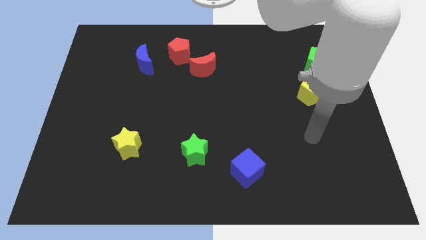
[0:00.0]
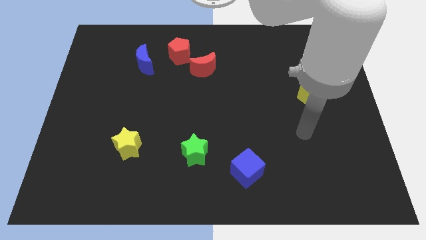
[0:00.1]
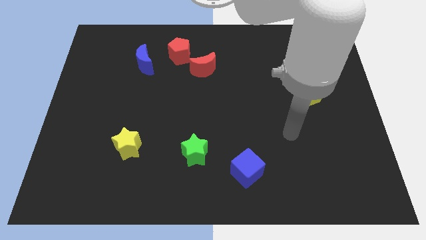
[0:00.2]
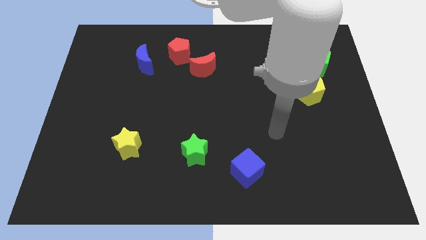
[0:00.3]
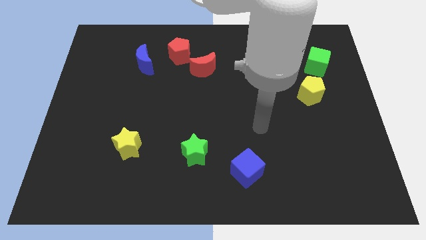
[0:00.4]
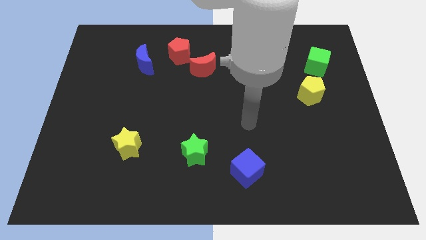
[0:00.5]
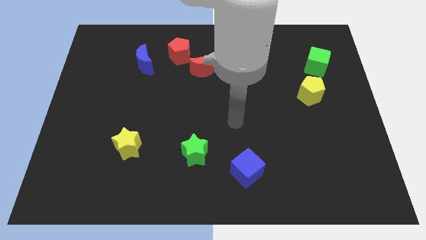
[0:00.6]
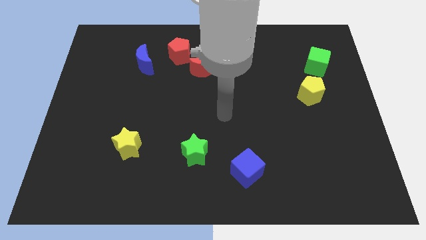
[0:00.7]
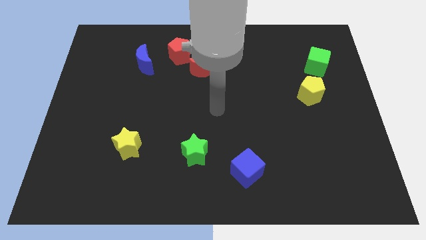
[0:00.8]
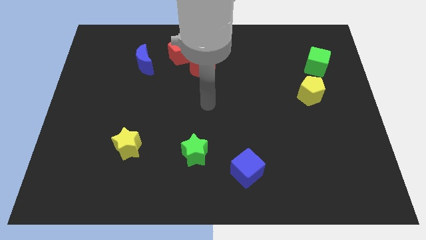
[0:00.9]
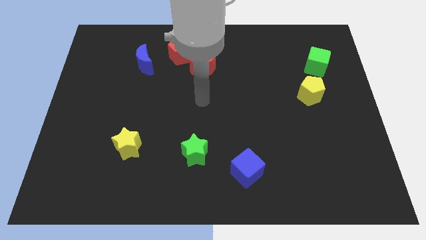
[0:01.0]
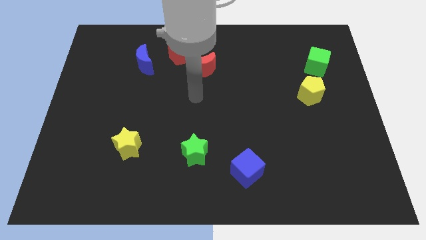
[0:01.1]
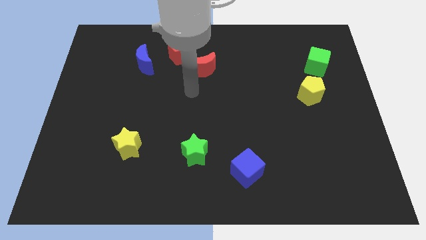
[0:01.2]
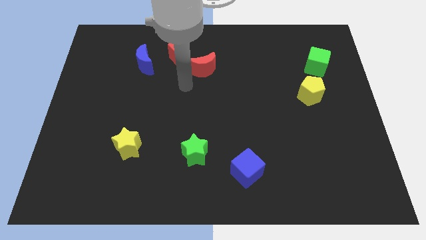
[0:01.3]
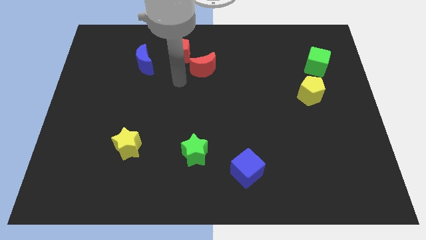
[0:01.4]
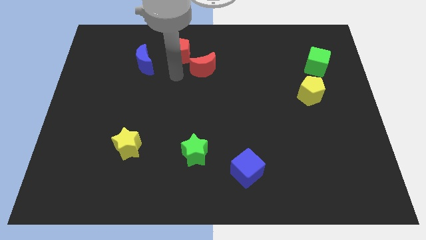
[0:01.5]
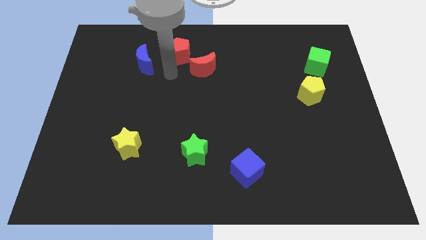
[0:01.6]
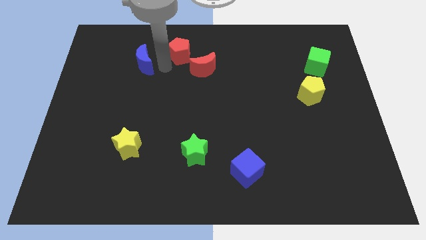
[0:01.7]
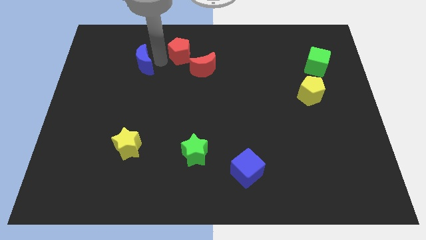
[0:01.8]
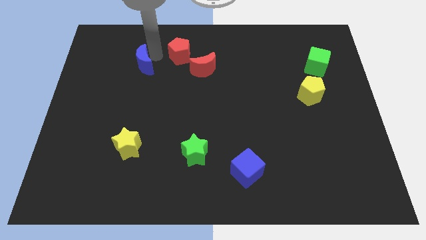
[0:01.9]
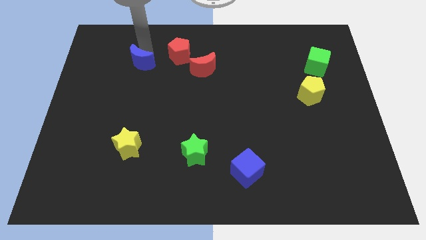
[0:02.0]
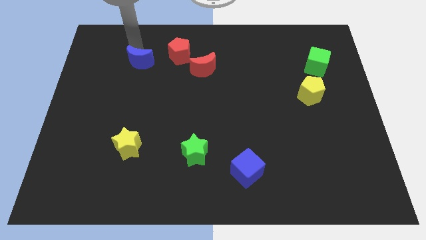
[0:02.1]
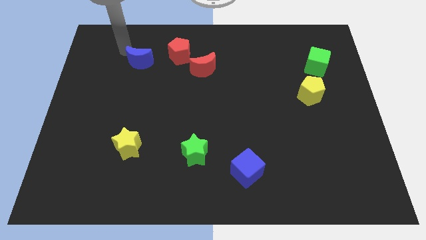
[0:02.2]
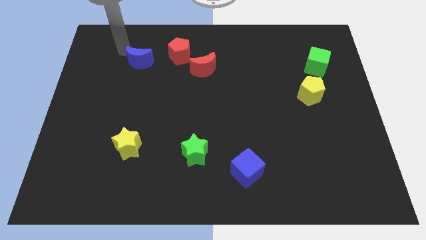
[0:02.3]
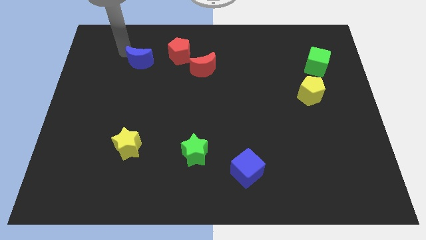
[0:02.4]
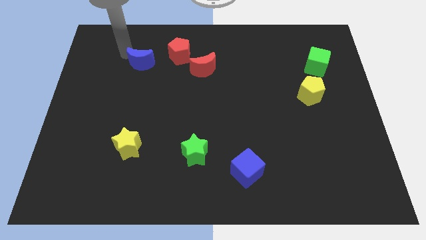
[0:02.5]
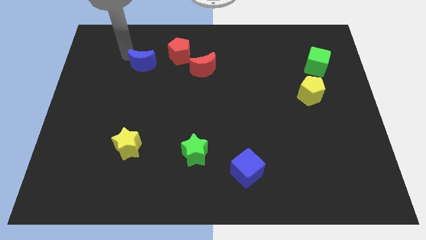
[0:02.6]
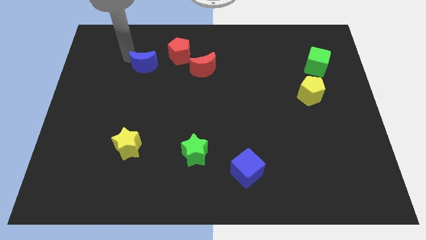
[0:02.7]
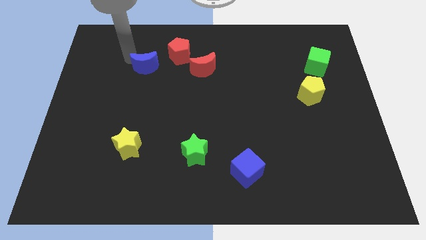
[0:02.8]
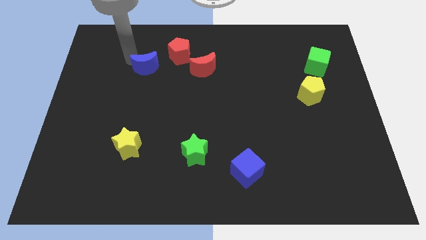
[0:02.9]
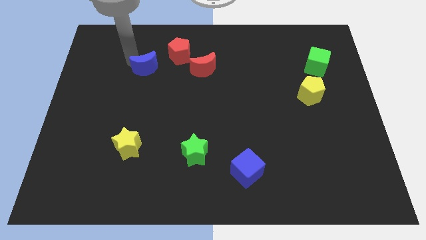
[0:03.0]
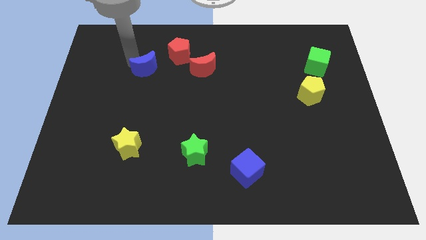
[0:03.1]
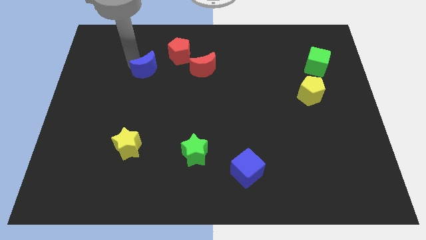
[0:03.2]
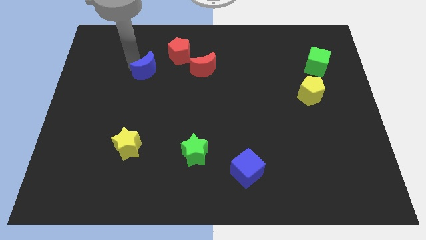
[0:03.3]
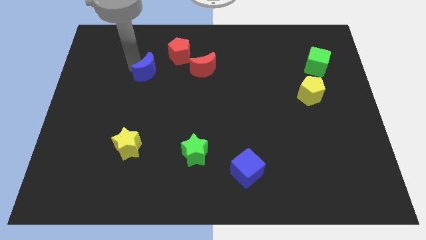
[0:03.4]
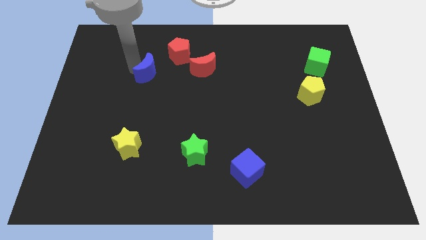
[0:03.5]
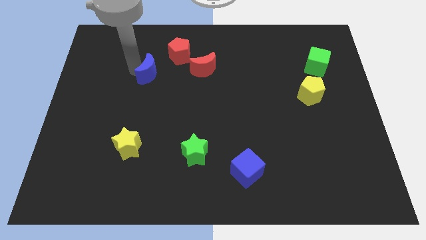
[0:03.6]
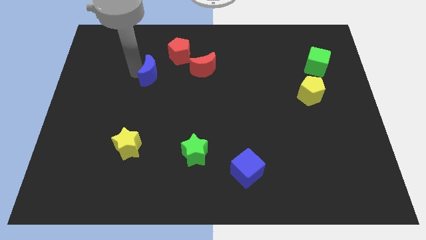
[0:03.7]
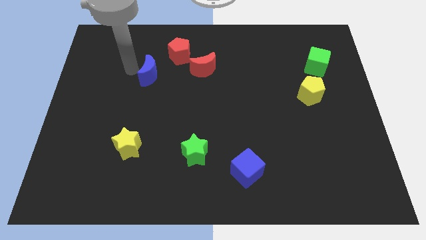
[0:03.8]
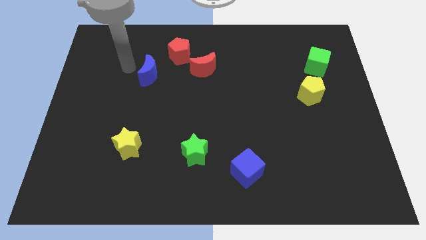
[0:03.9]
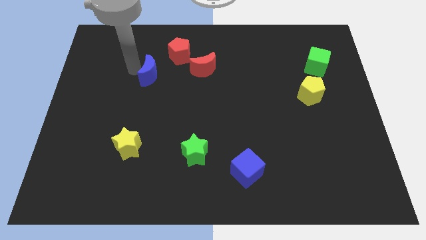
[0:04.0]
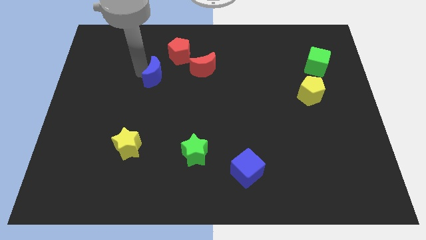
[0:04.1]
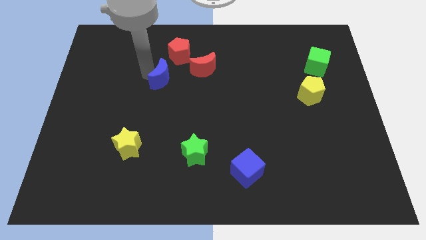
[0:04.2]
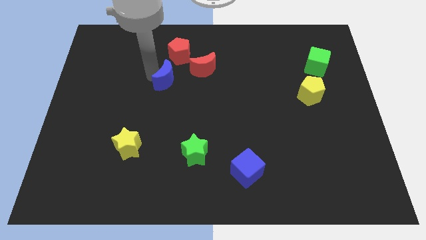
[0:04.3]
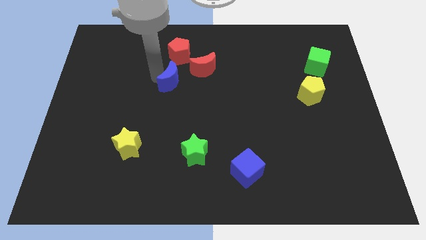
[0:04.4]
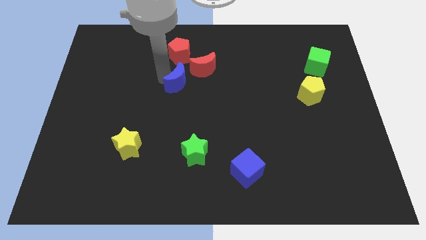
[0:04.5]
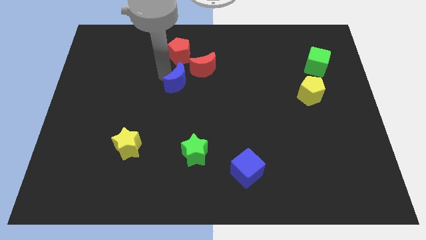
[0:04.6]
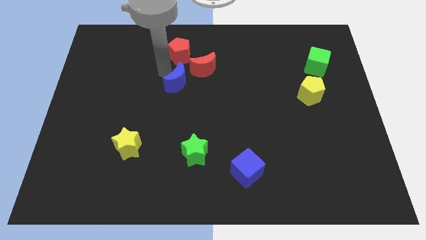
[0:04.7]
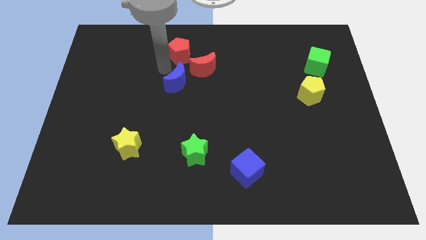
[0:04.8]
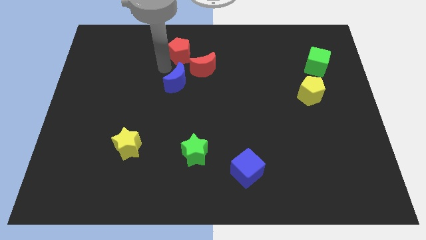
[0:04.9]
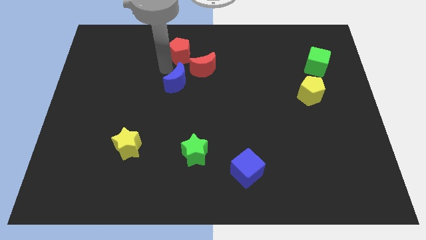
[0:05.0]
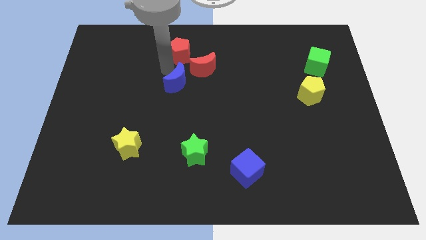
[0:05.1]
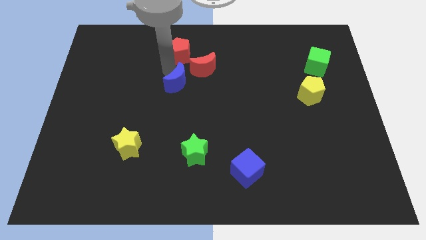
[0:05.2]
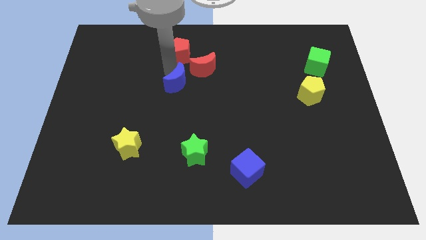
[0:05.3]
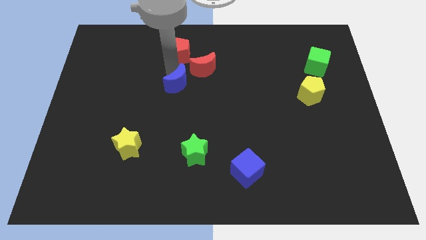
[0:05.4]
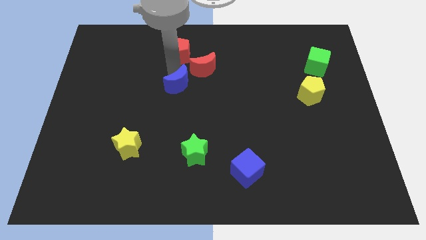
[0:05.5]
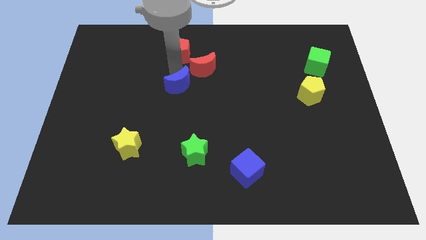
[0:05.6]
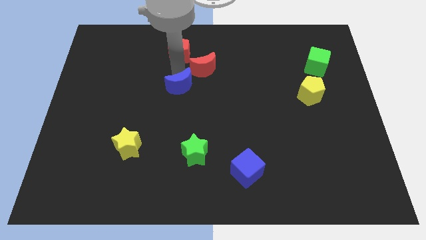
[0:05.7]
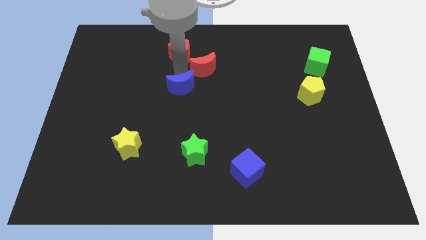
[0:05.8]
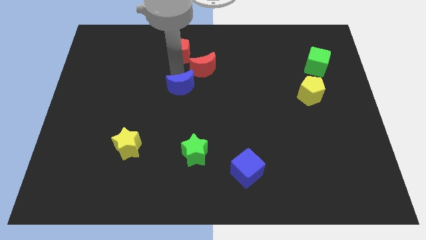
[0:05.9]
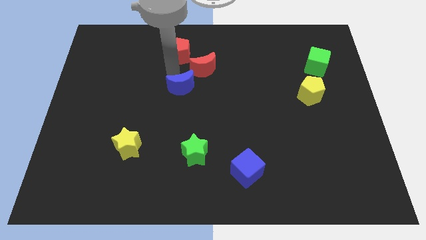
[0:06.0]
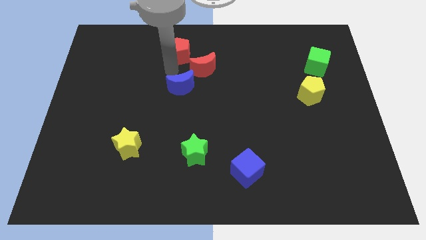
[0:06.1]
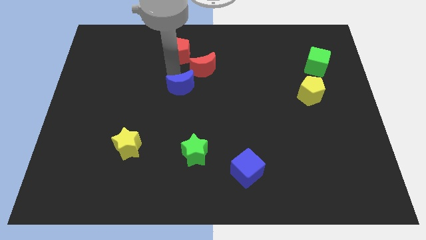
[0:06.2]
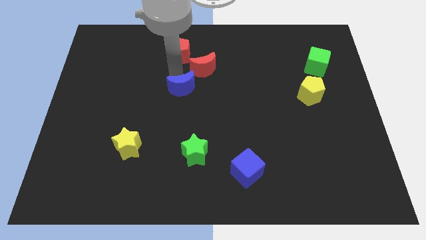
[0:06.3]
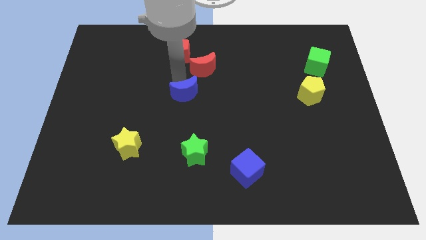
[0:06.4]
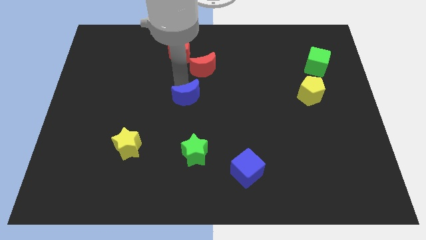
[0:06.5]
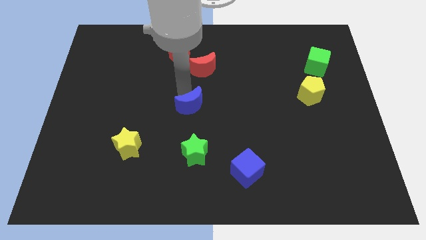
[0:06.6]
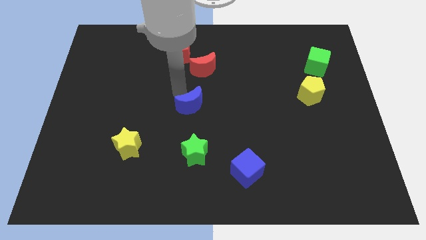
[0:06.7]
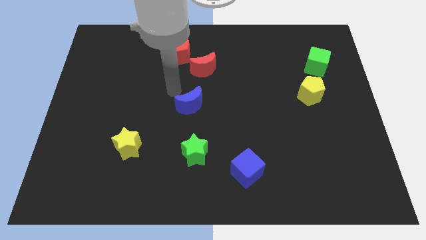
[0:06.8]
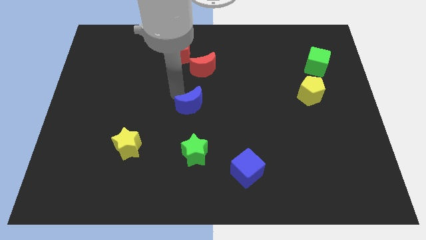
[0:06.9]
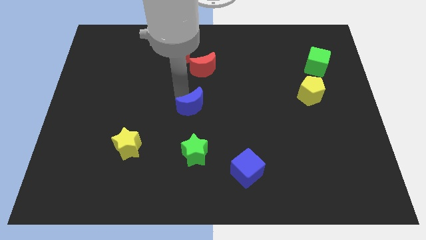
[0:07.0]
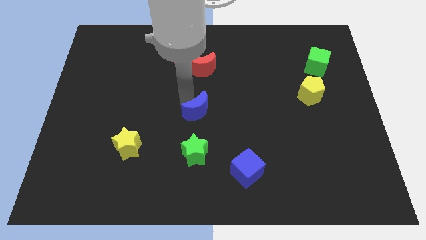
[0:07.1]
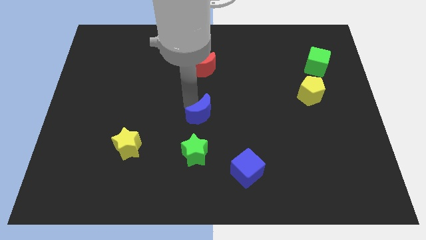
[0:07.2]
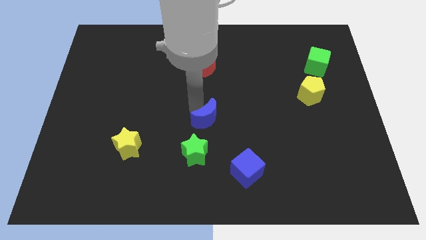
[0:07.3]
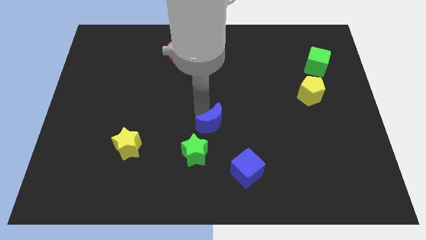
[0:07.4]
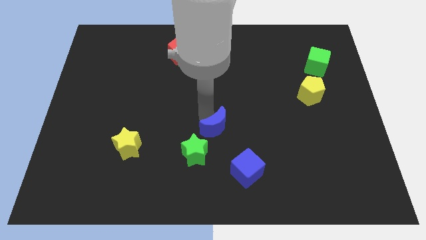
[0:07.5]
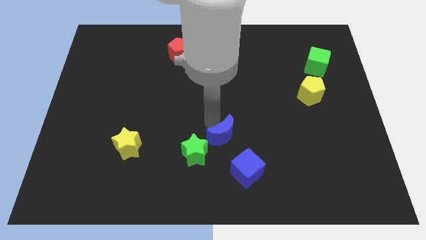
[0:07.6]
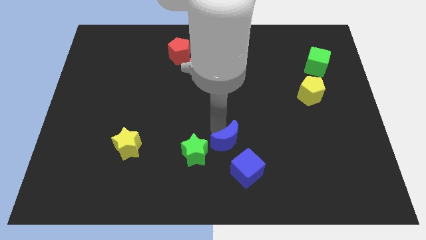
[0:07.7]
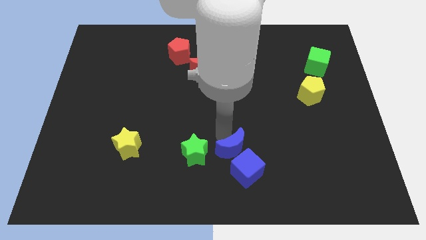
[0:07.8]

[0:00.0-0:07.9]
push the blue moon next to the blue cube
